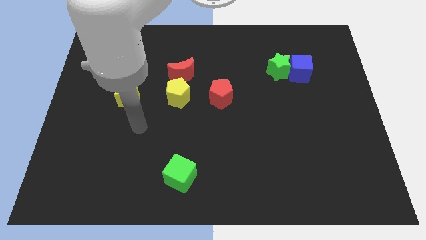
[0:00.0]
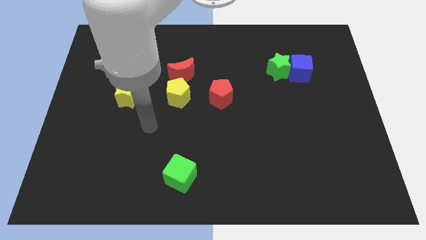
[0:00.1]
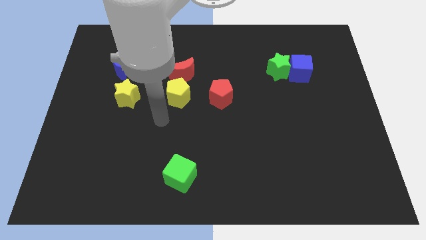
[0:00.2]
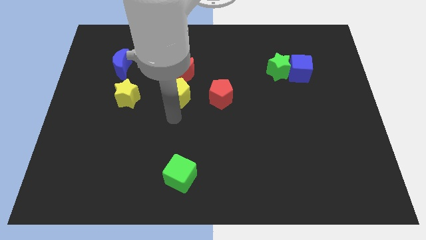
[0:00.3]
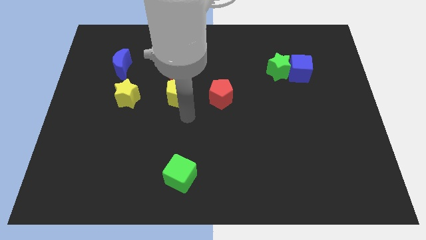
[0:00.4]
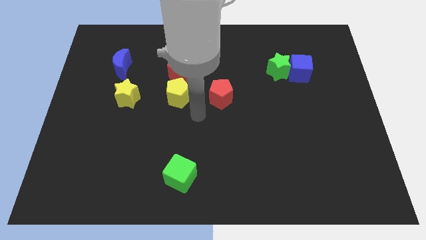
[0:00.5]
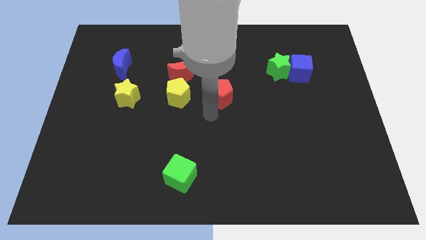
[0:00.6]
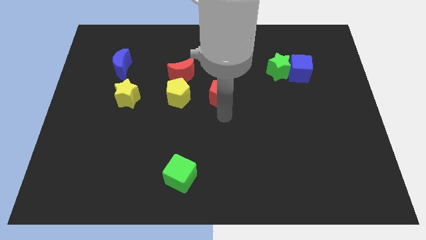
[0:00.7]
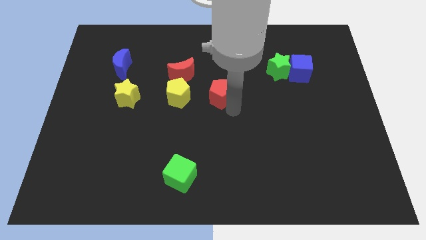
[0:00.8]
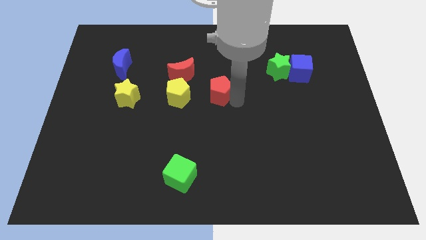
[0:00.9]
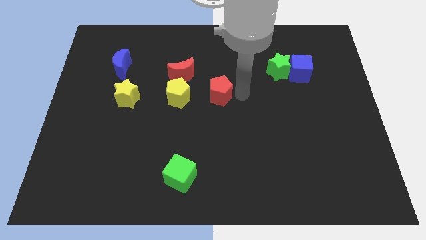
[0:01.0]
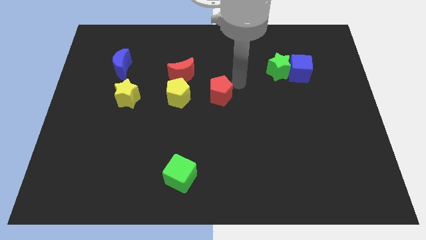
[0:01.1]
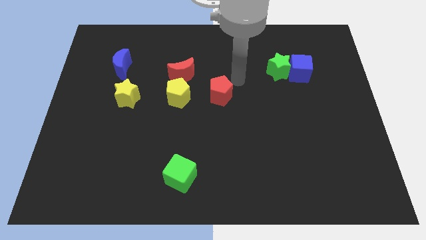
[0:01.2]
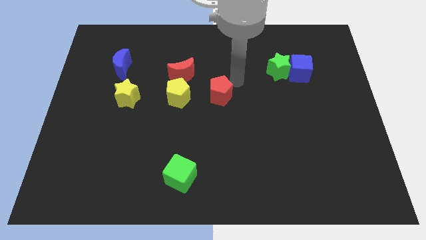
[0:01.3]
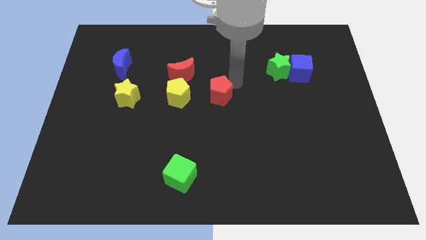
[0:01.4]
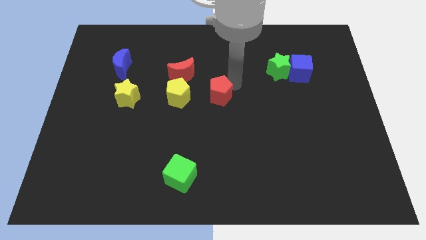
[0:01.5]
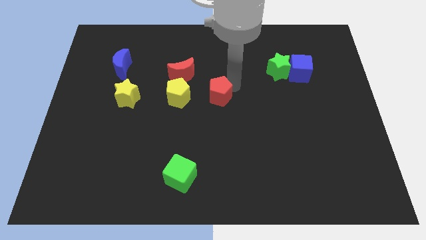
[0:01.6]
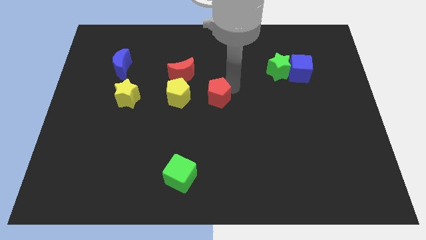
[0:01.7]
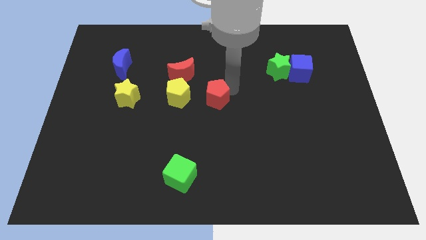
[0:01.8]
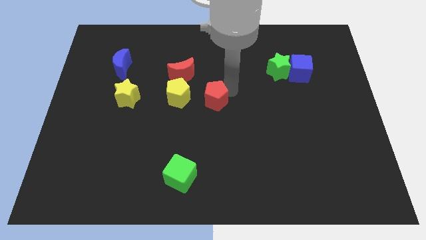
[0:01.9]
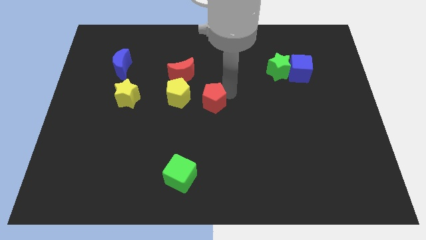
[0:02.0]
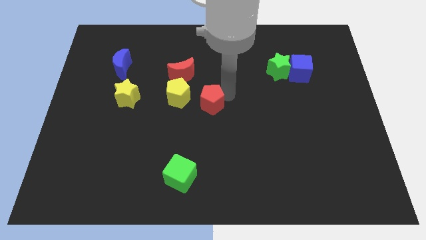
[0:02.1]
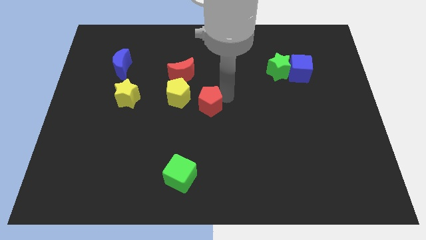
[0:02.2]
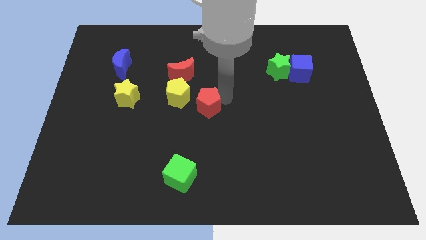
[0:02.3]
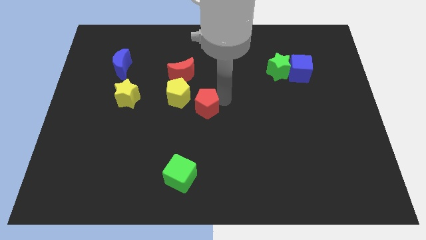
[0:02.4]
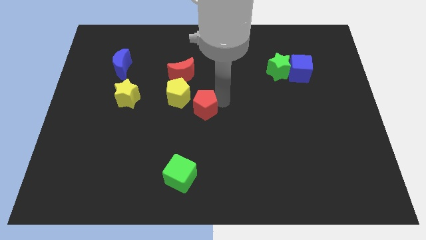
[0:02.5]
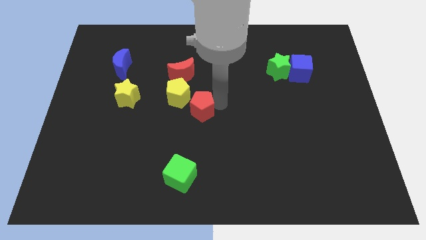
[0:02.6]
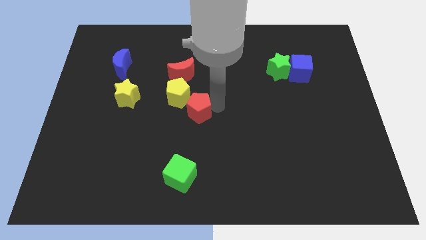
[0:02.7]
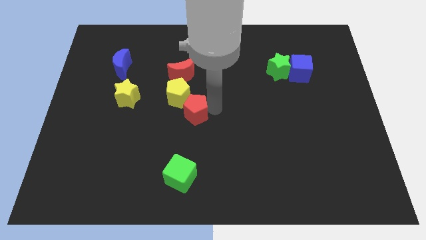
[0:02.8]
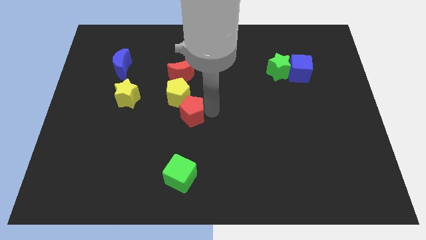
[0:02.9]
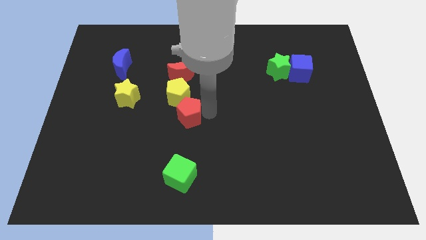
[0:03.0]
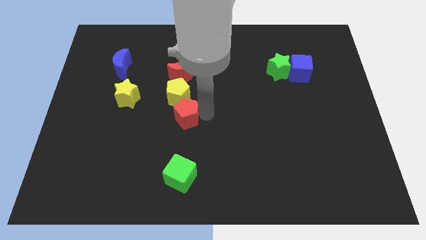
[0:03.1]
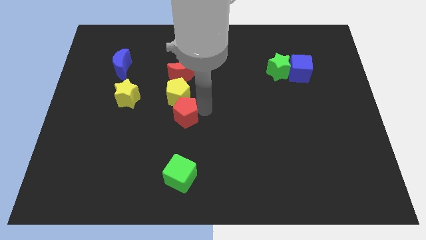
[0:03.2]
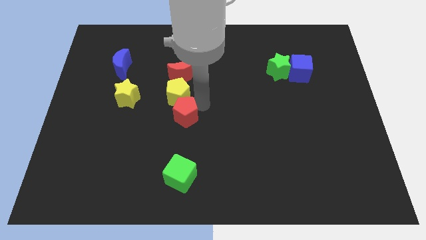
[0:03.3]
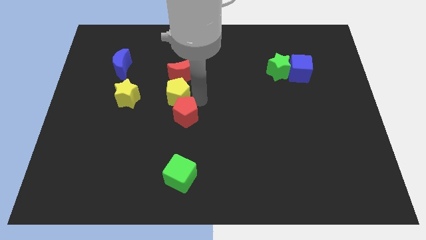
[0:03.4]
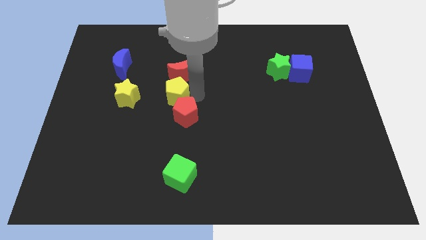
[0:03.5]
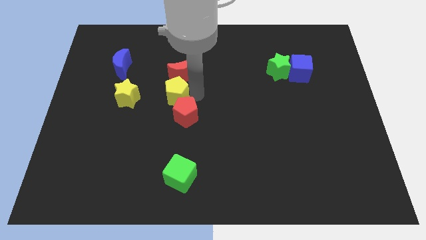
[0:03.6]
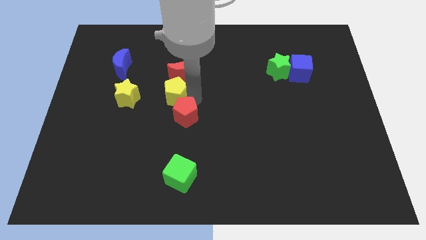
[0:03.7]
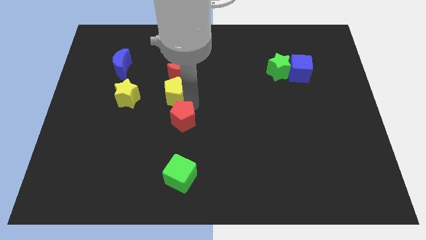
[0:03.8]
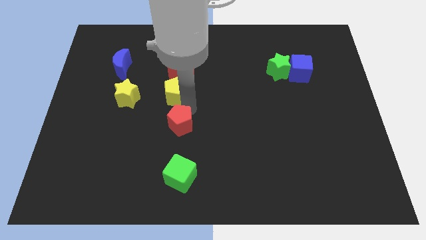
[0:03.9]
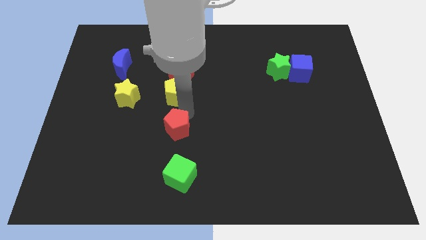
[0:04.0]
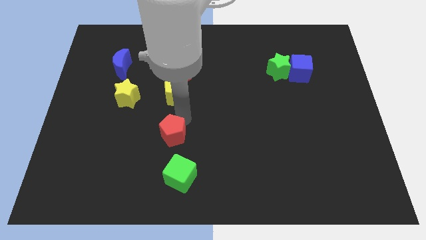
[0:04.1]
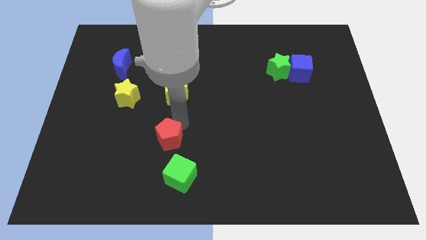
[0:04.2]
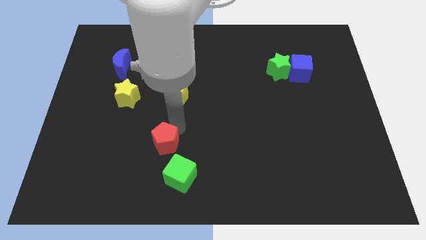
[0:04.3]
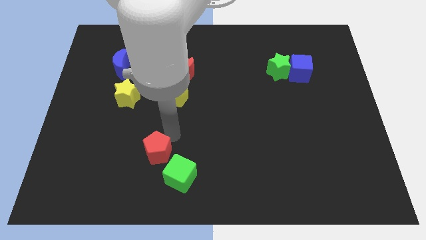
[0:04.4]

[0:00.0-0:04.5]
slide the red pentagon downwards and left

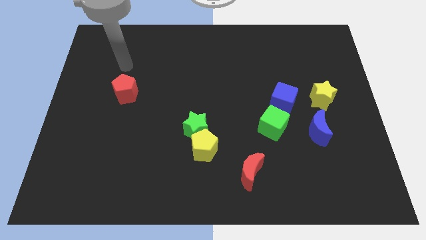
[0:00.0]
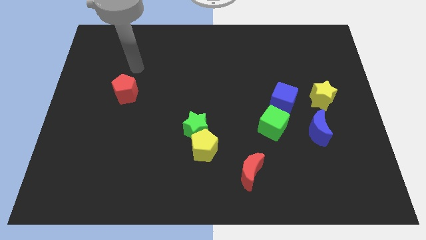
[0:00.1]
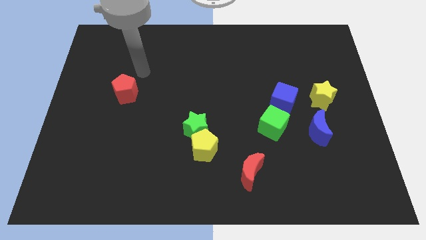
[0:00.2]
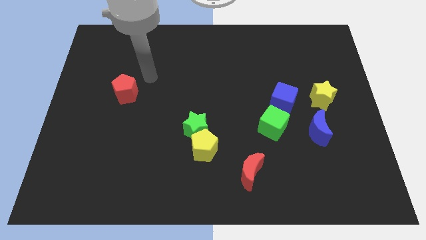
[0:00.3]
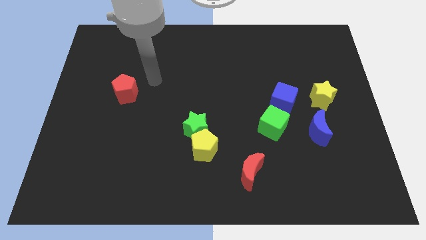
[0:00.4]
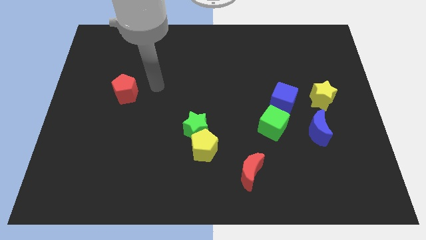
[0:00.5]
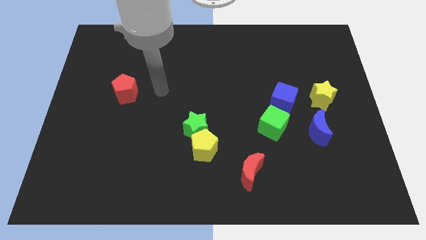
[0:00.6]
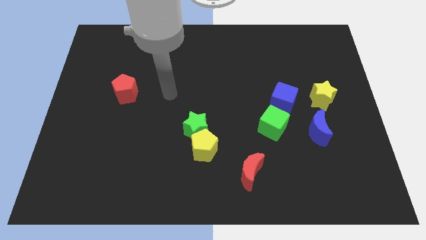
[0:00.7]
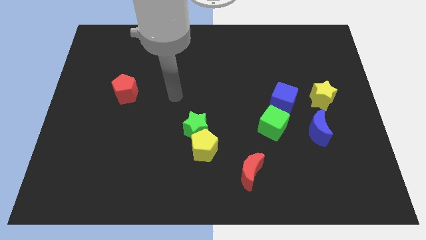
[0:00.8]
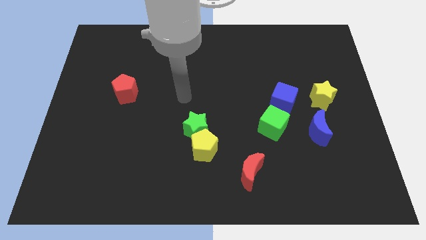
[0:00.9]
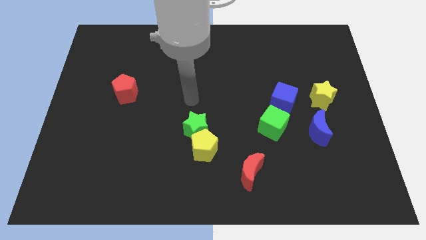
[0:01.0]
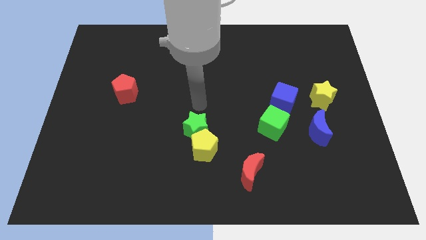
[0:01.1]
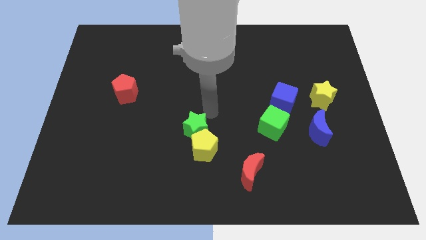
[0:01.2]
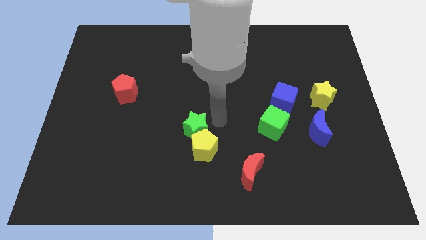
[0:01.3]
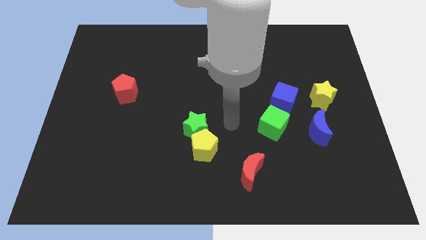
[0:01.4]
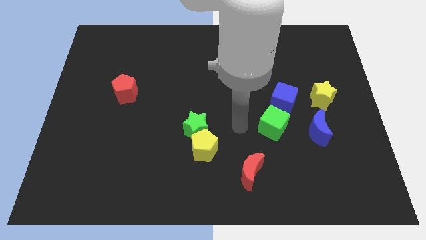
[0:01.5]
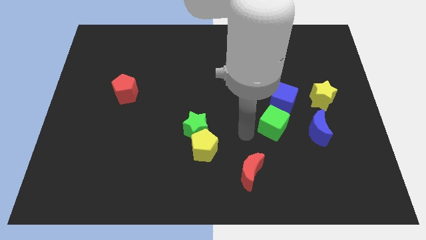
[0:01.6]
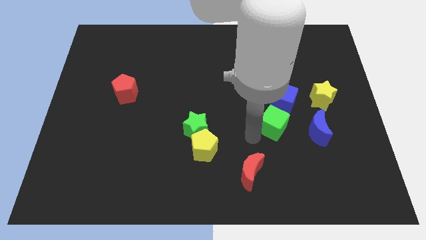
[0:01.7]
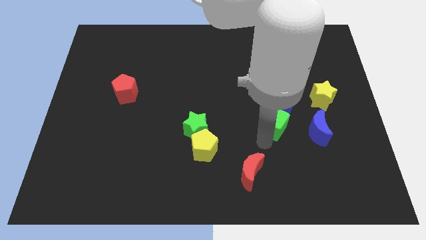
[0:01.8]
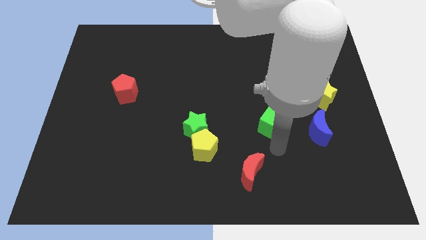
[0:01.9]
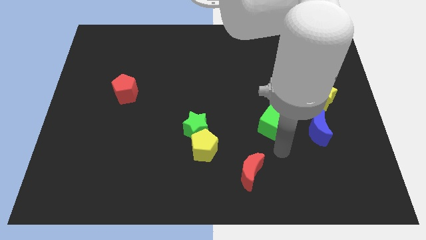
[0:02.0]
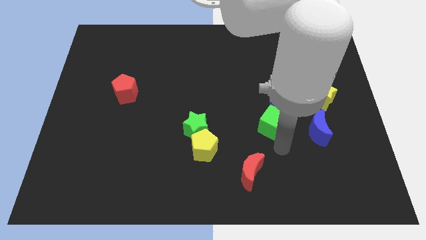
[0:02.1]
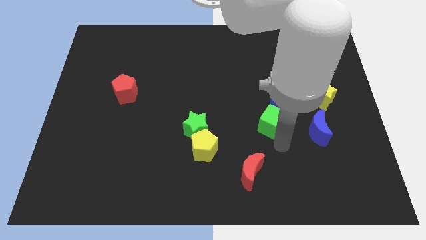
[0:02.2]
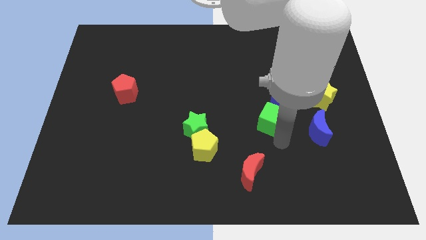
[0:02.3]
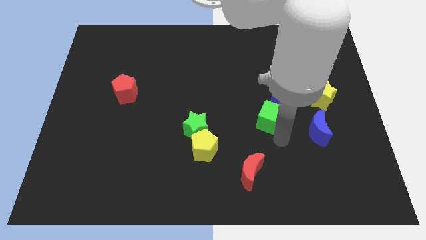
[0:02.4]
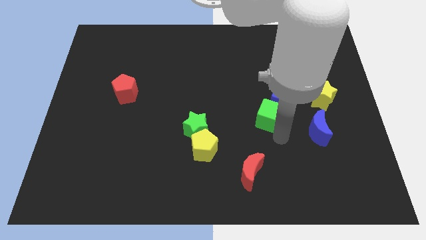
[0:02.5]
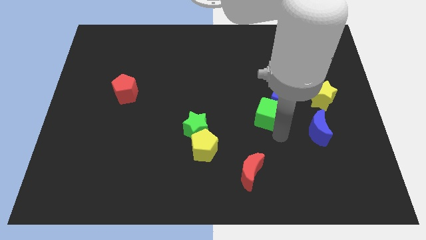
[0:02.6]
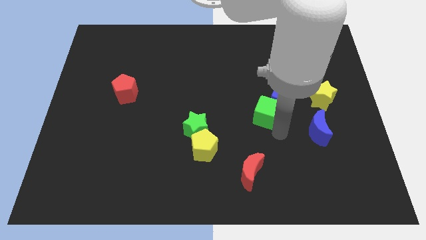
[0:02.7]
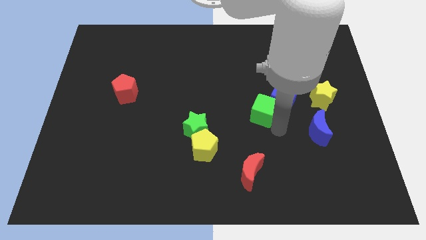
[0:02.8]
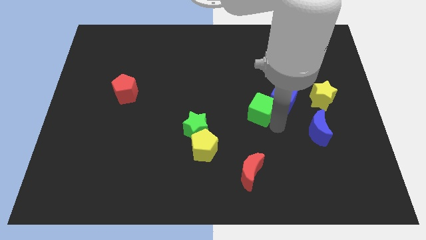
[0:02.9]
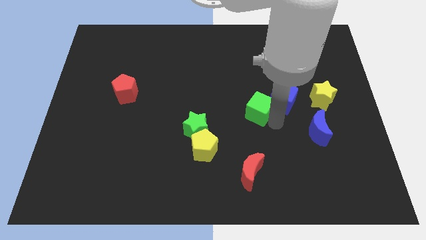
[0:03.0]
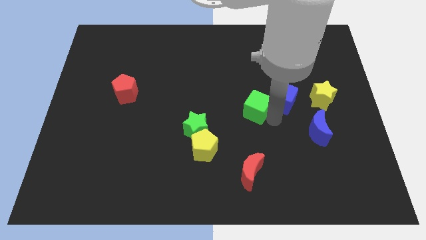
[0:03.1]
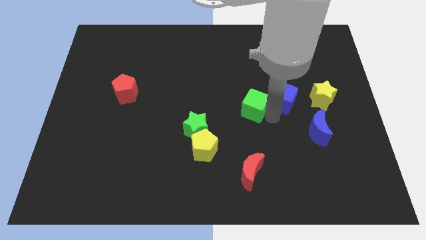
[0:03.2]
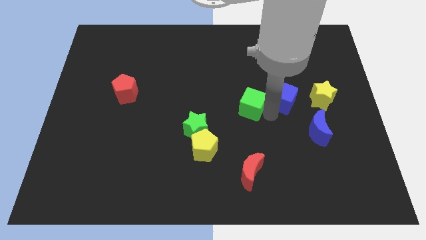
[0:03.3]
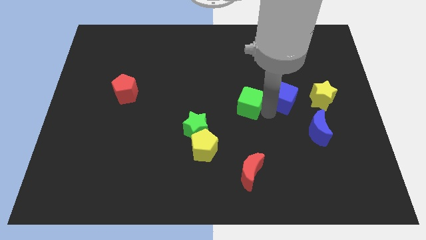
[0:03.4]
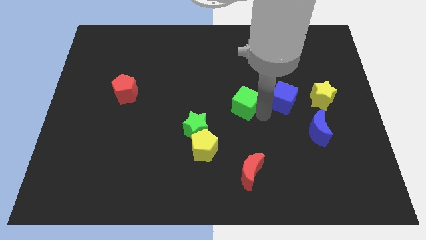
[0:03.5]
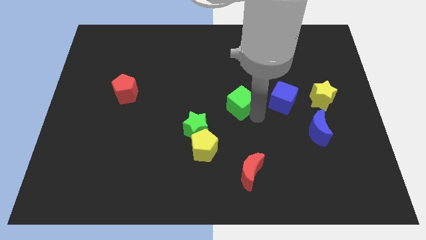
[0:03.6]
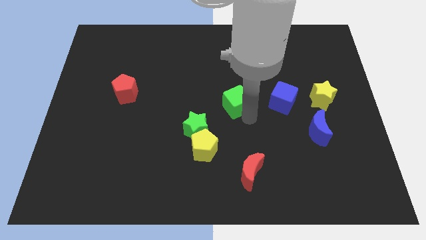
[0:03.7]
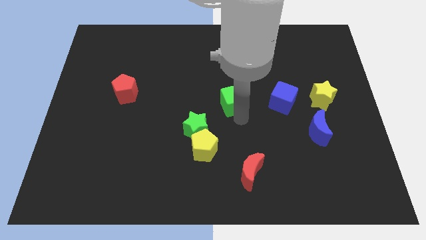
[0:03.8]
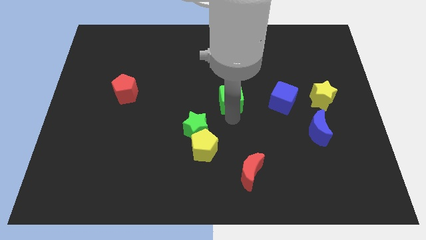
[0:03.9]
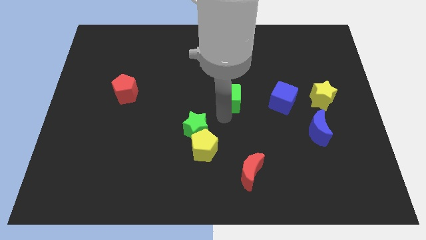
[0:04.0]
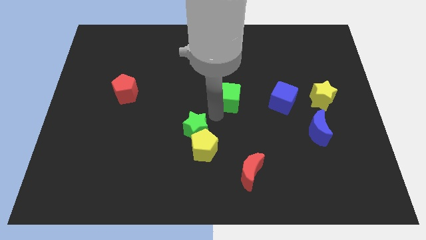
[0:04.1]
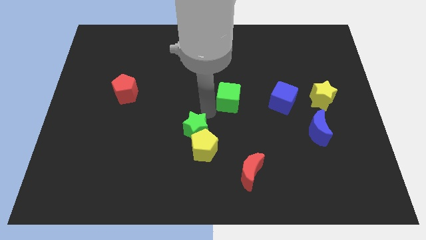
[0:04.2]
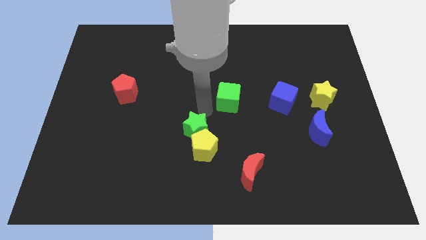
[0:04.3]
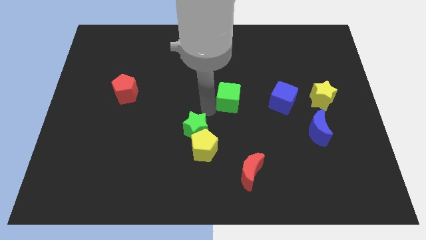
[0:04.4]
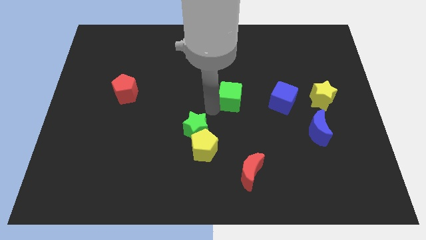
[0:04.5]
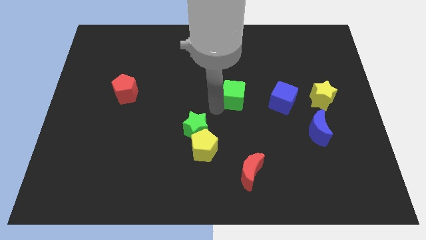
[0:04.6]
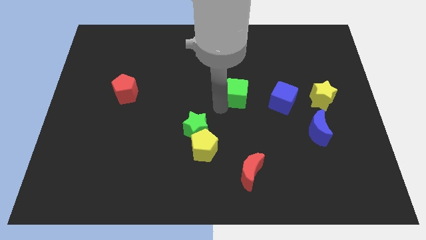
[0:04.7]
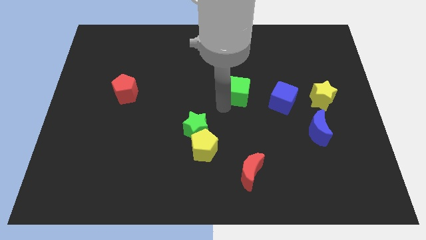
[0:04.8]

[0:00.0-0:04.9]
move the green cube somewhat upwards
